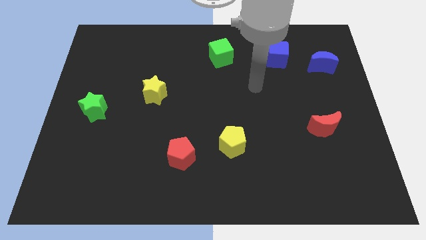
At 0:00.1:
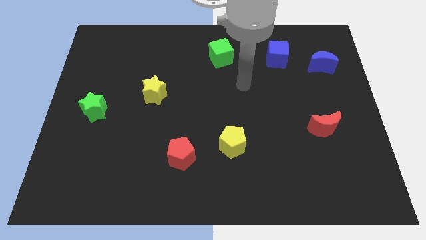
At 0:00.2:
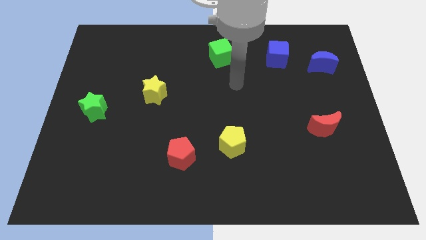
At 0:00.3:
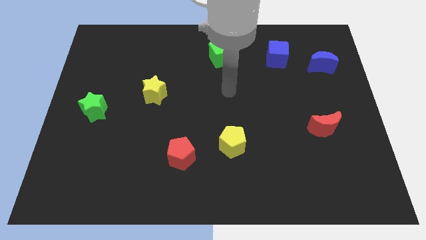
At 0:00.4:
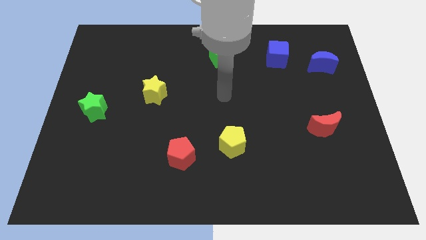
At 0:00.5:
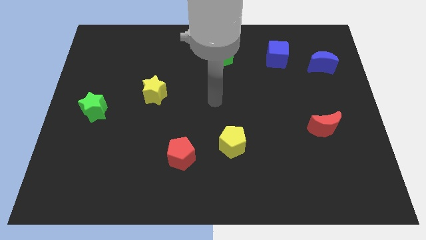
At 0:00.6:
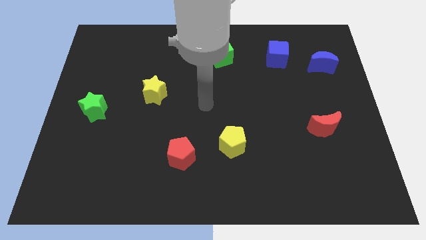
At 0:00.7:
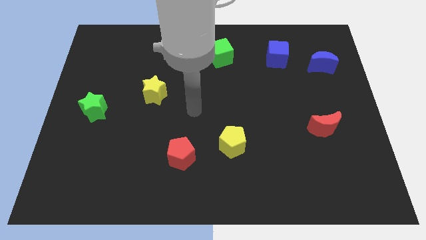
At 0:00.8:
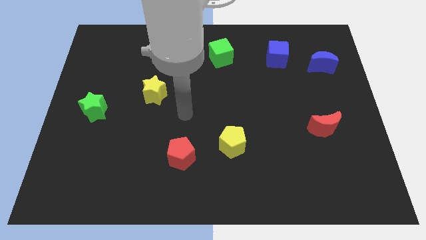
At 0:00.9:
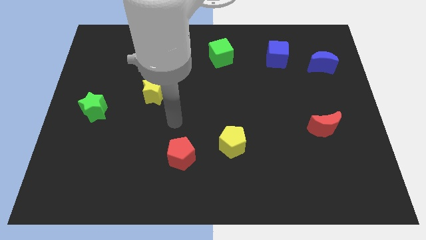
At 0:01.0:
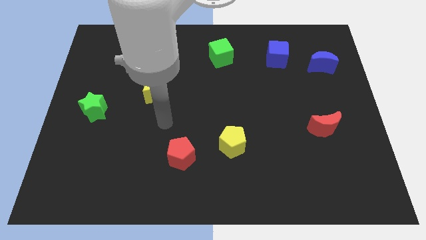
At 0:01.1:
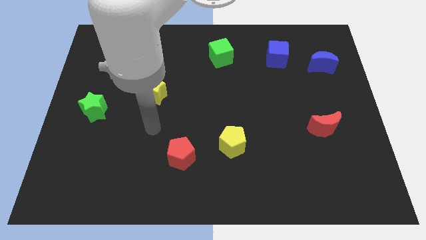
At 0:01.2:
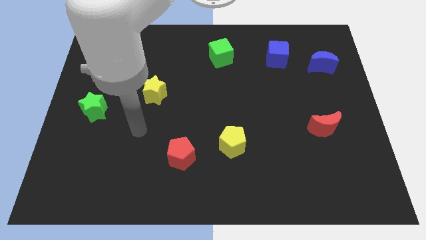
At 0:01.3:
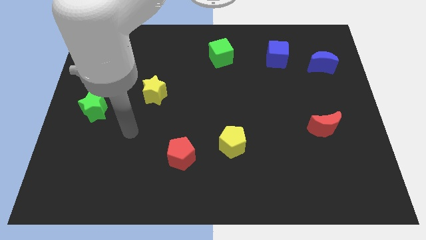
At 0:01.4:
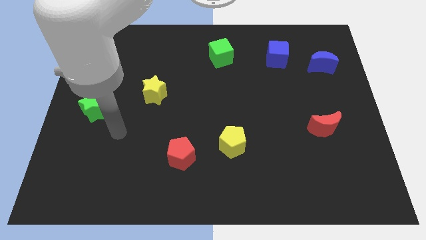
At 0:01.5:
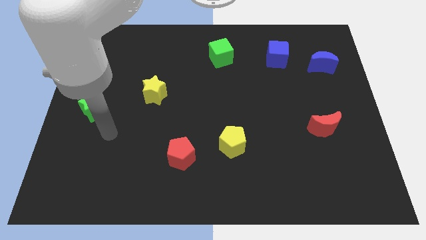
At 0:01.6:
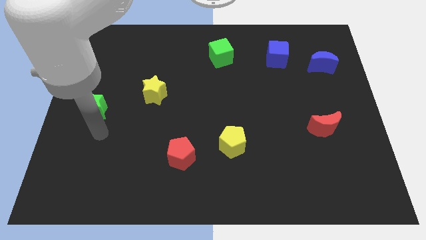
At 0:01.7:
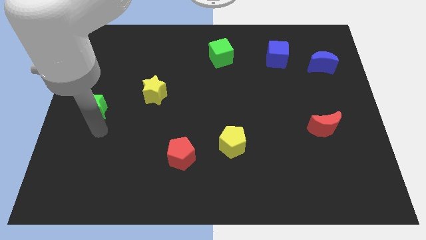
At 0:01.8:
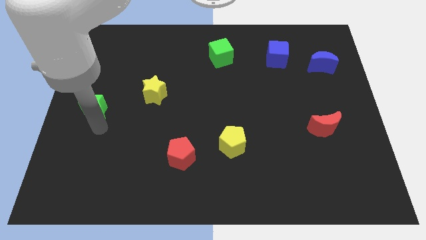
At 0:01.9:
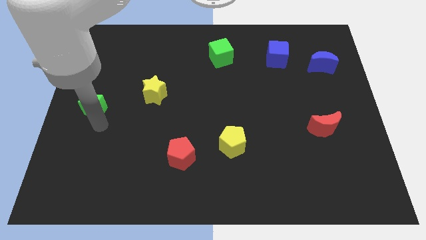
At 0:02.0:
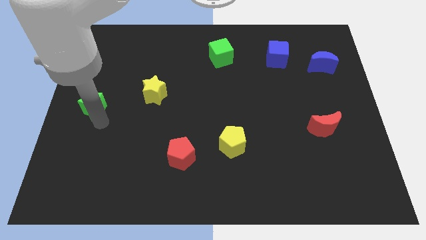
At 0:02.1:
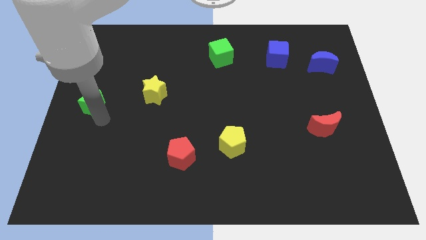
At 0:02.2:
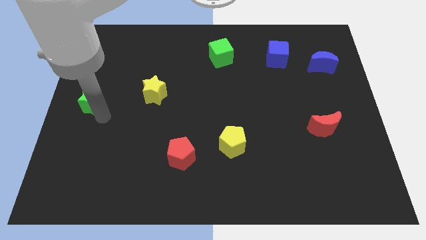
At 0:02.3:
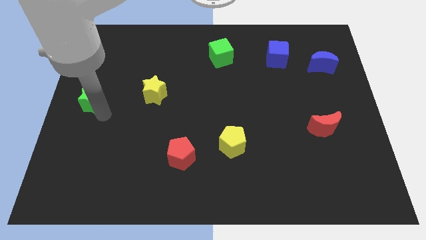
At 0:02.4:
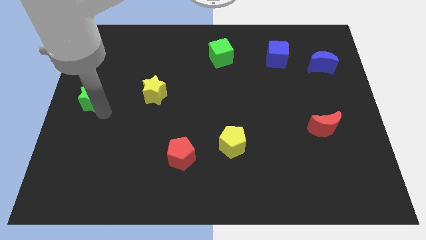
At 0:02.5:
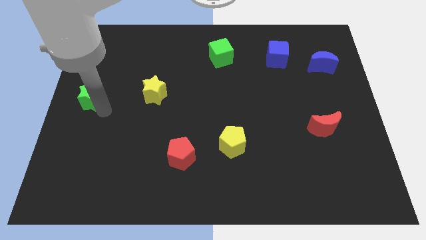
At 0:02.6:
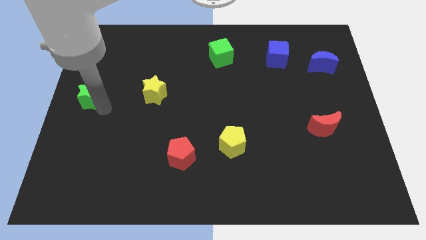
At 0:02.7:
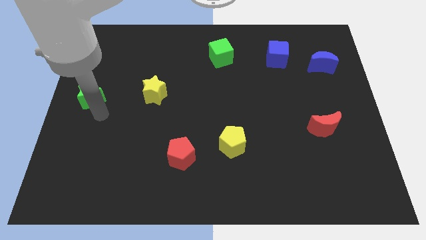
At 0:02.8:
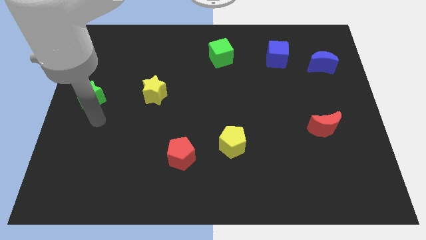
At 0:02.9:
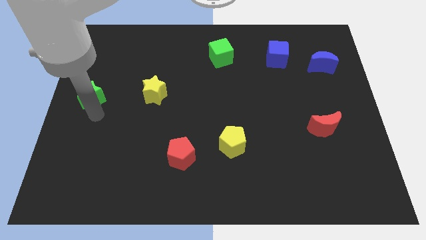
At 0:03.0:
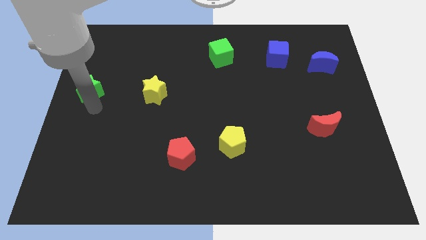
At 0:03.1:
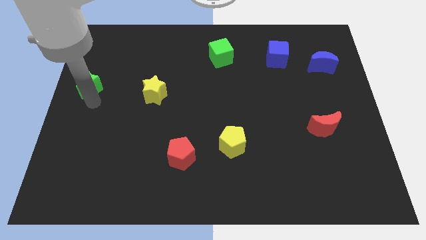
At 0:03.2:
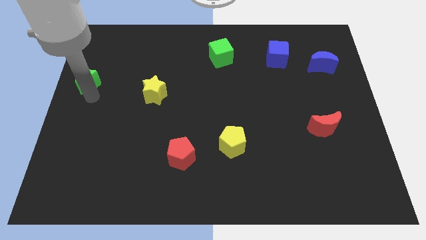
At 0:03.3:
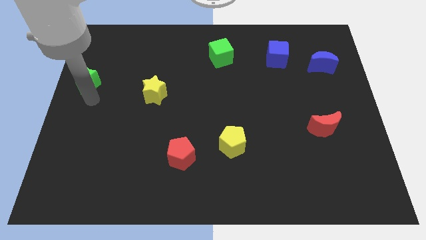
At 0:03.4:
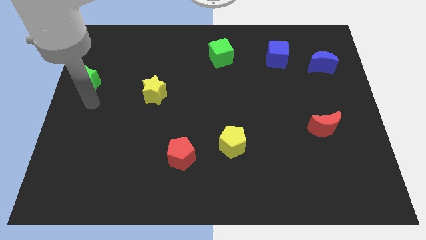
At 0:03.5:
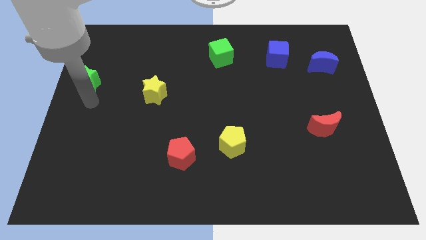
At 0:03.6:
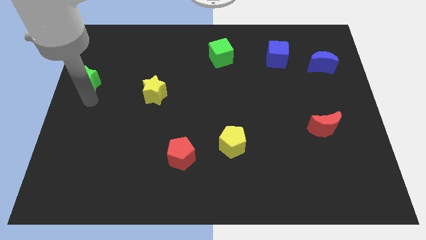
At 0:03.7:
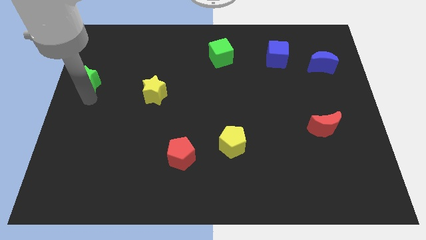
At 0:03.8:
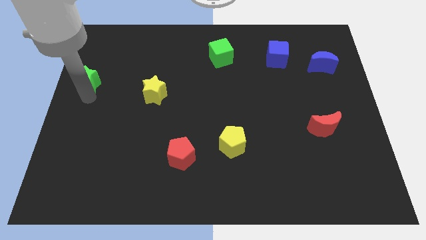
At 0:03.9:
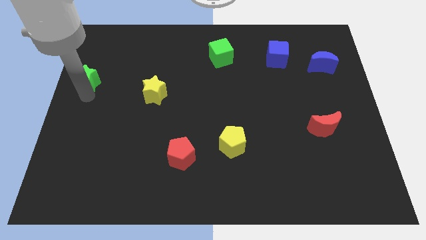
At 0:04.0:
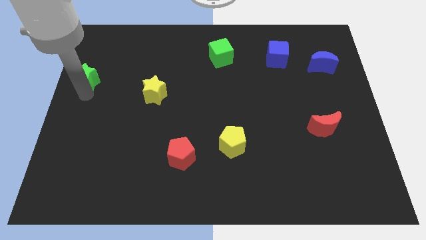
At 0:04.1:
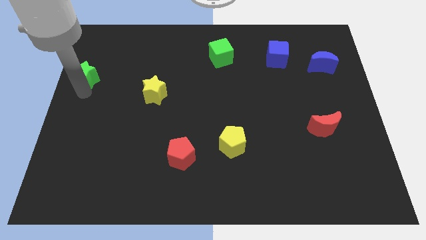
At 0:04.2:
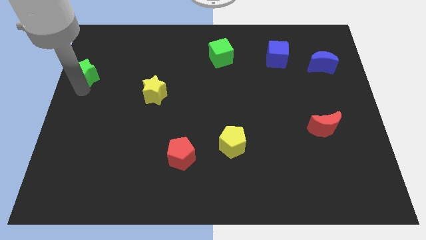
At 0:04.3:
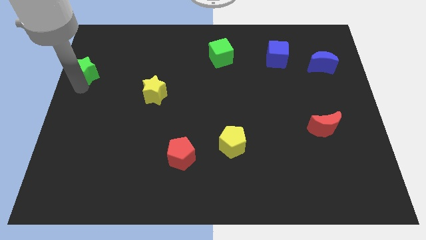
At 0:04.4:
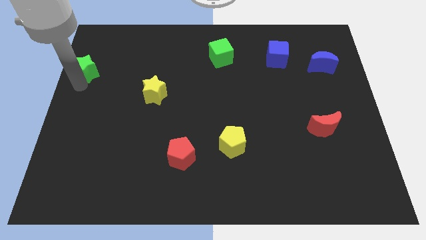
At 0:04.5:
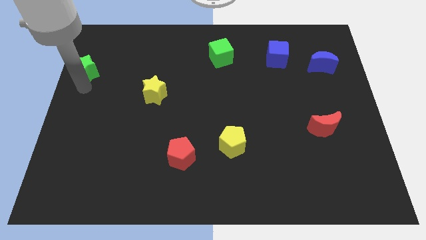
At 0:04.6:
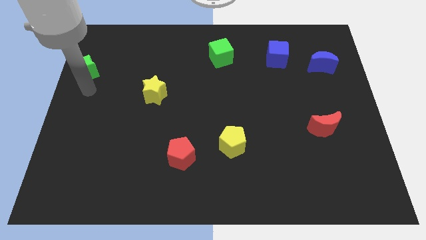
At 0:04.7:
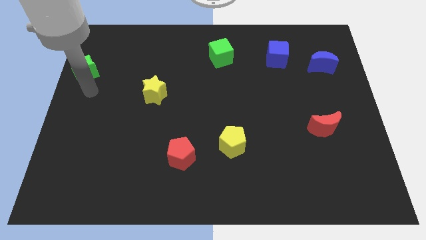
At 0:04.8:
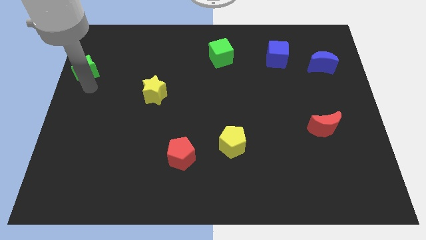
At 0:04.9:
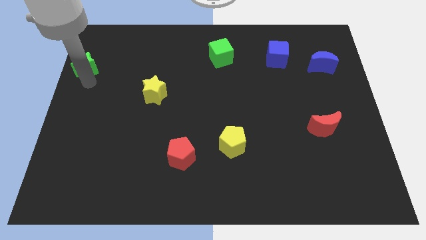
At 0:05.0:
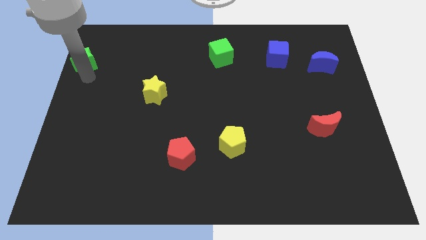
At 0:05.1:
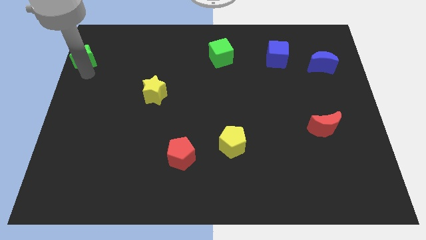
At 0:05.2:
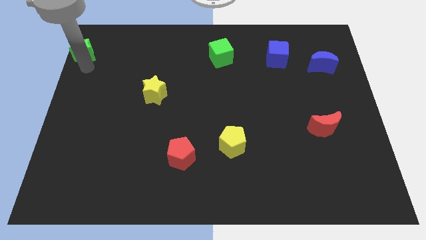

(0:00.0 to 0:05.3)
put the green star to the top left
